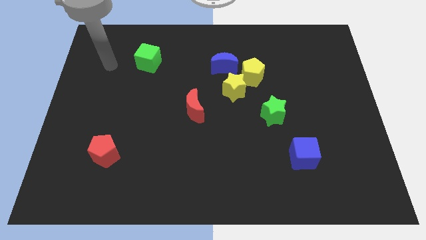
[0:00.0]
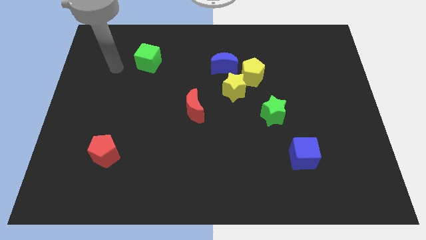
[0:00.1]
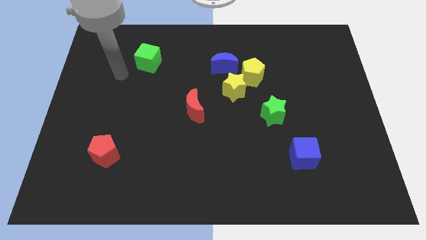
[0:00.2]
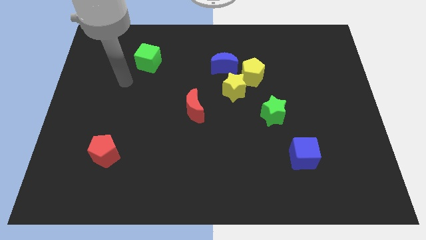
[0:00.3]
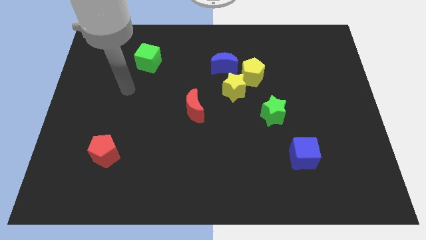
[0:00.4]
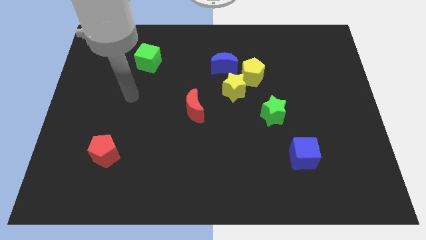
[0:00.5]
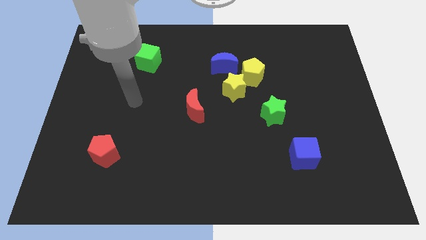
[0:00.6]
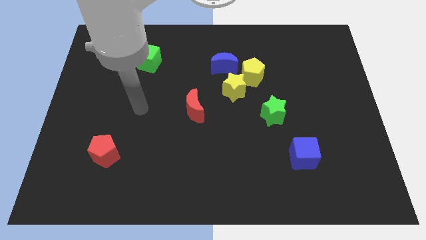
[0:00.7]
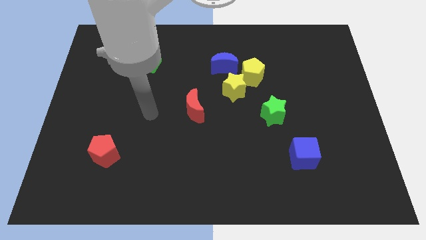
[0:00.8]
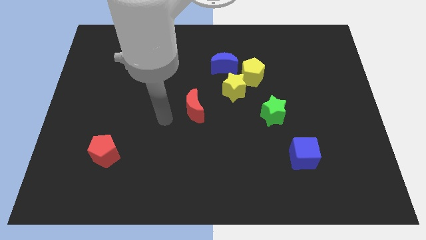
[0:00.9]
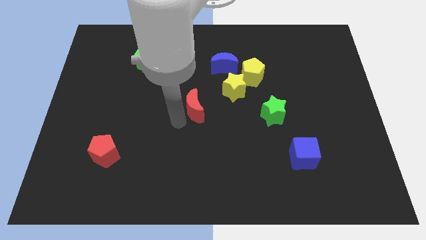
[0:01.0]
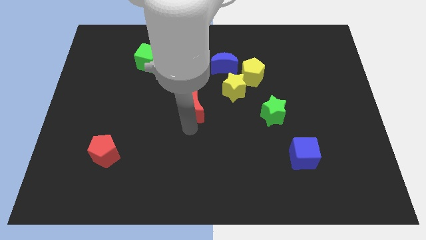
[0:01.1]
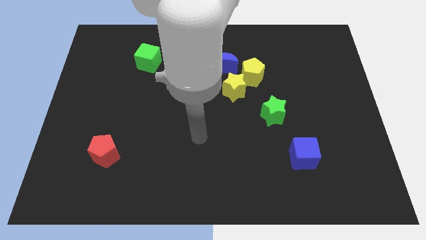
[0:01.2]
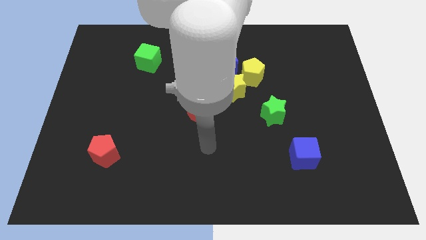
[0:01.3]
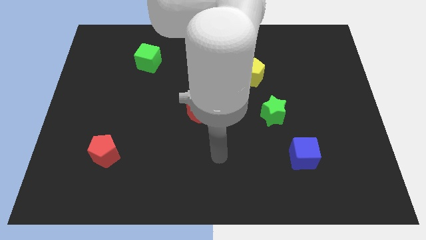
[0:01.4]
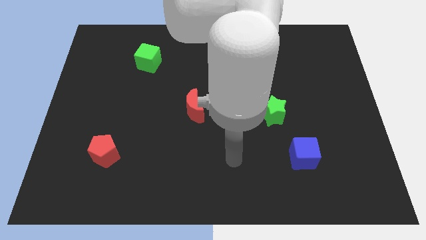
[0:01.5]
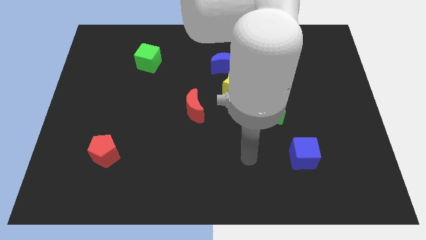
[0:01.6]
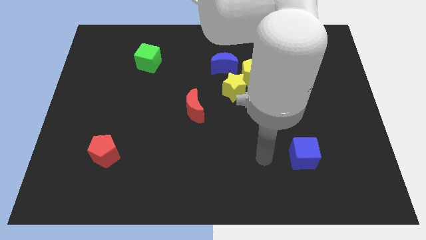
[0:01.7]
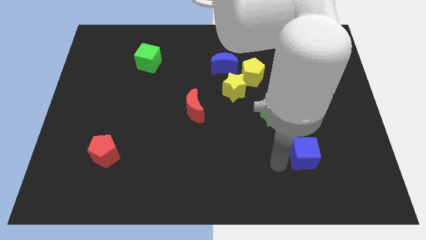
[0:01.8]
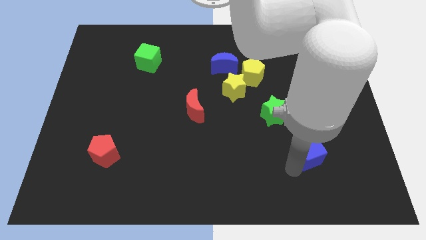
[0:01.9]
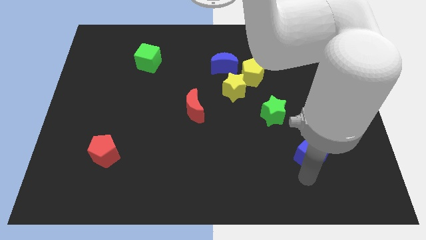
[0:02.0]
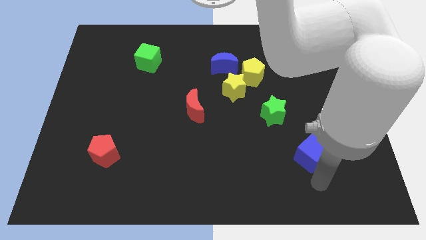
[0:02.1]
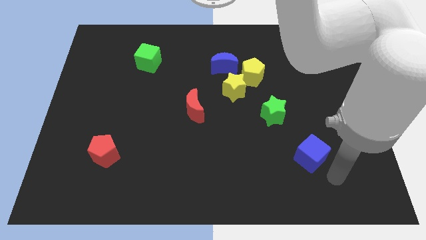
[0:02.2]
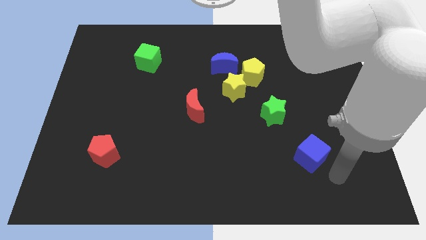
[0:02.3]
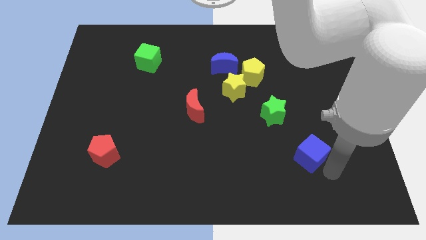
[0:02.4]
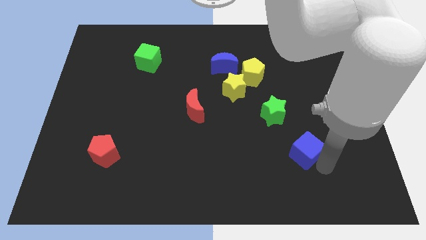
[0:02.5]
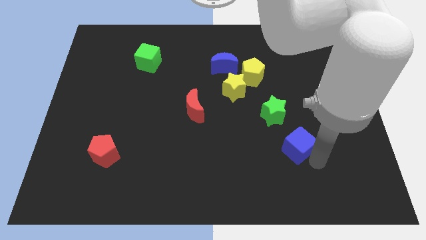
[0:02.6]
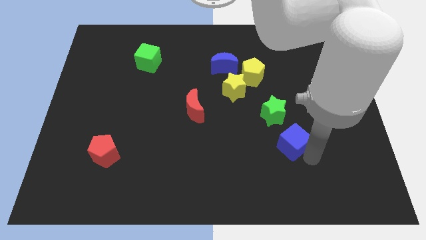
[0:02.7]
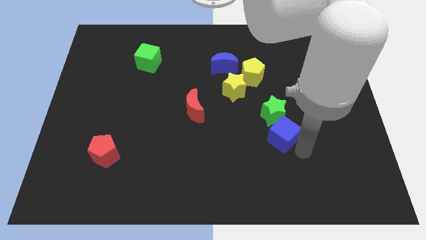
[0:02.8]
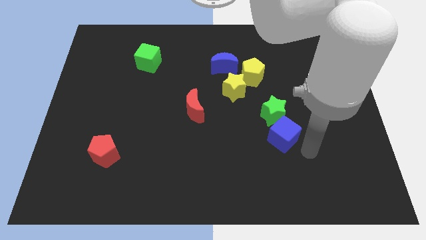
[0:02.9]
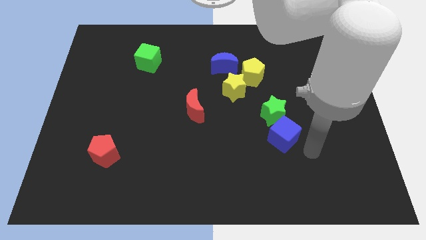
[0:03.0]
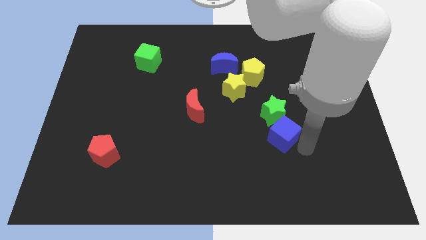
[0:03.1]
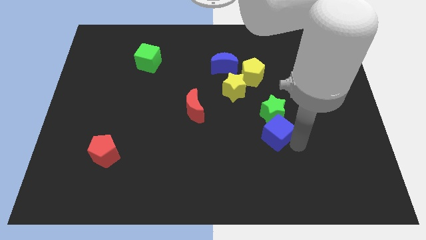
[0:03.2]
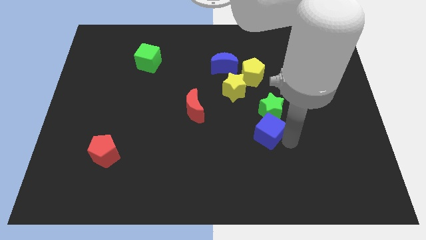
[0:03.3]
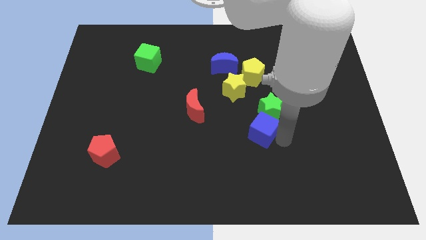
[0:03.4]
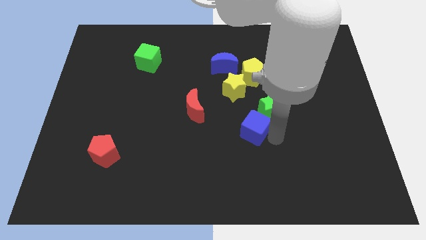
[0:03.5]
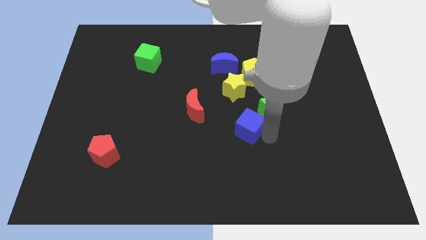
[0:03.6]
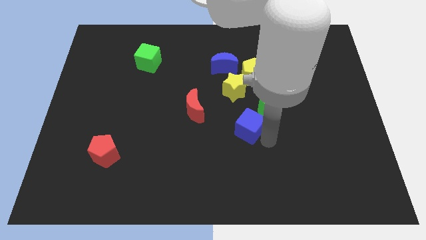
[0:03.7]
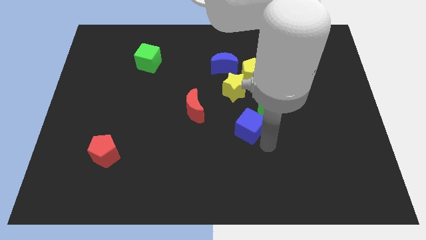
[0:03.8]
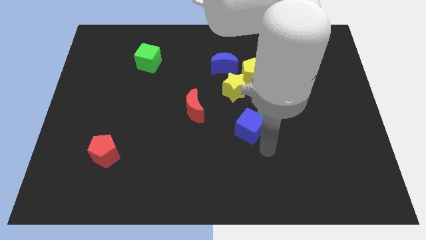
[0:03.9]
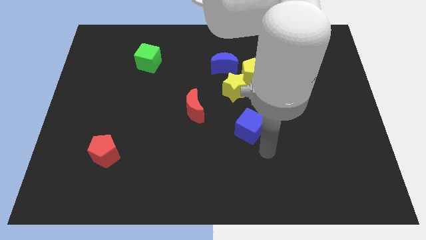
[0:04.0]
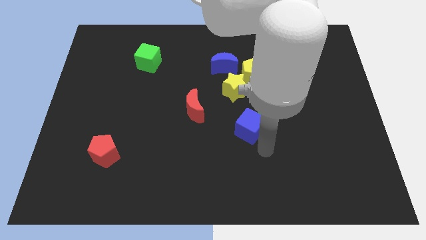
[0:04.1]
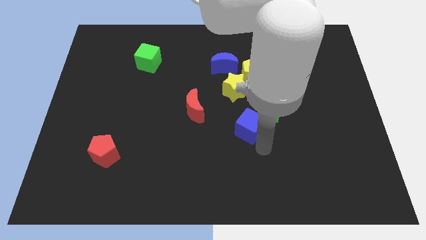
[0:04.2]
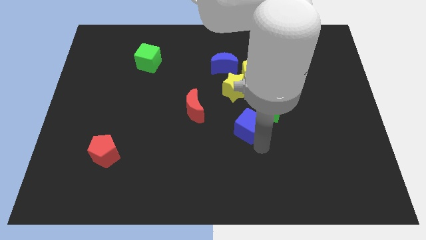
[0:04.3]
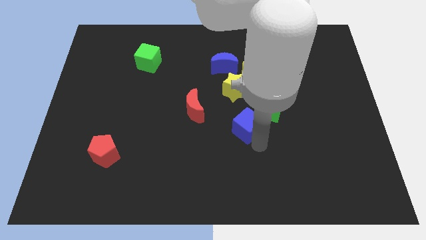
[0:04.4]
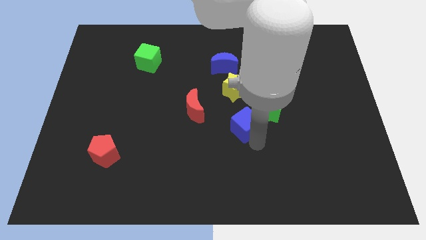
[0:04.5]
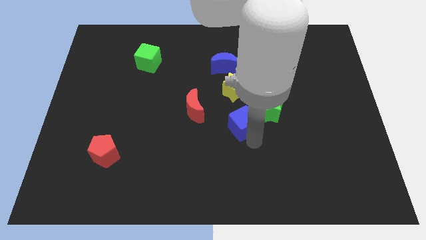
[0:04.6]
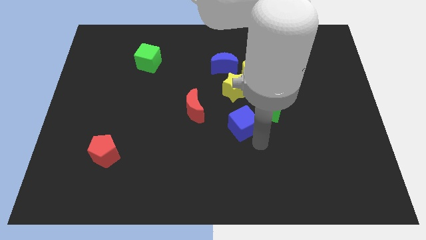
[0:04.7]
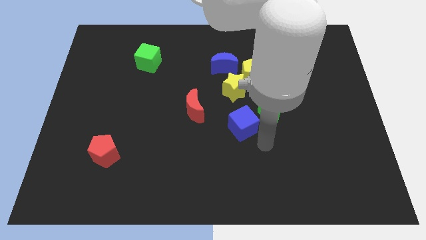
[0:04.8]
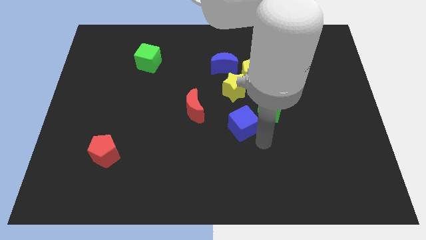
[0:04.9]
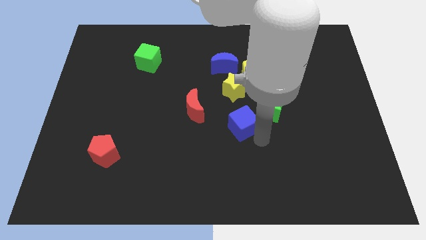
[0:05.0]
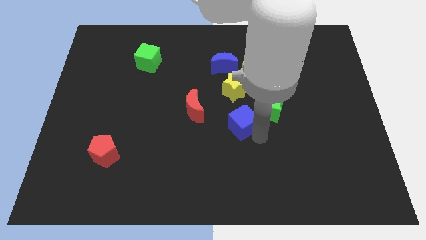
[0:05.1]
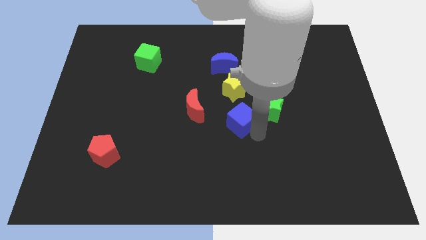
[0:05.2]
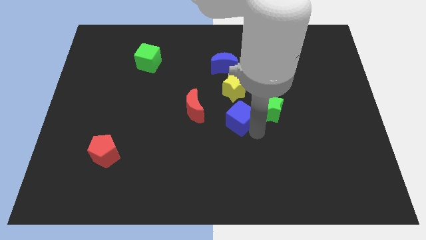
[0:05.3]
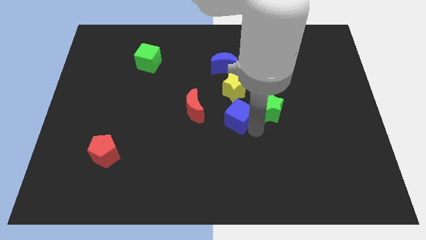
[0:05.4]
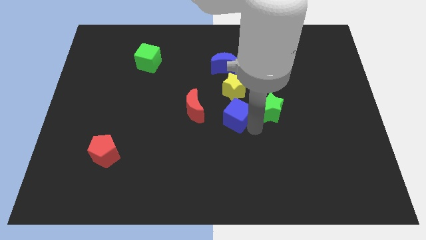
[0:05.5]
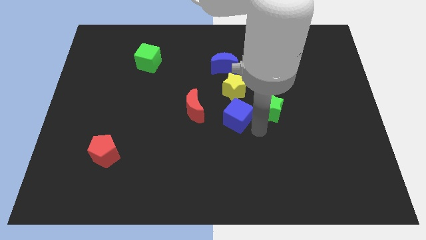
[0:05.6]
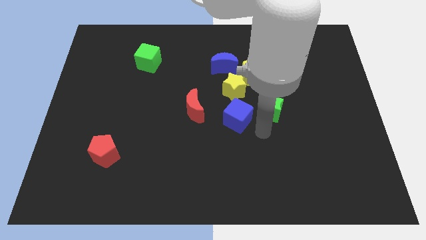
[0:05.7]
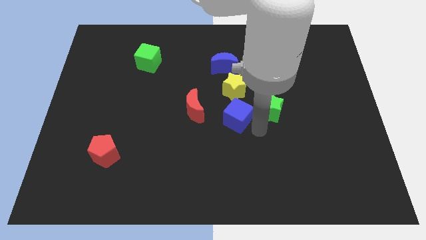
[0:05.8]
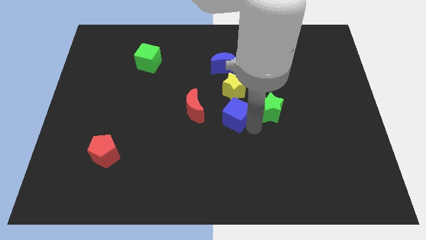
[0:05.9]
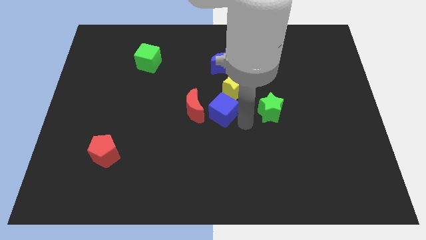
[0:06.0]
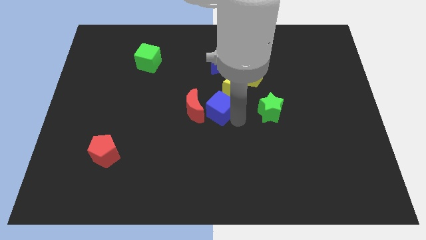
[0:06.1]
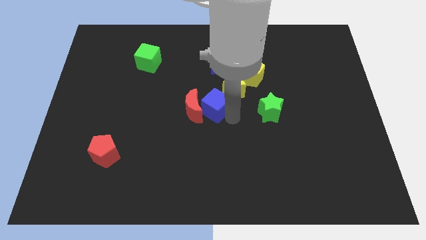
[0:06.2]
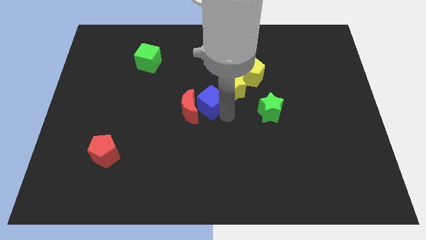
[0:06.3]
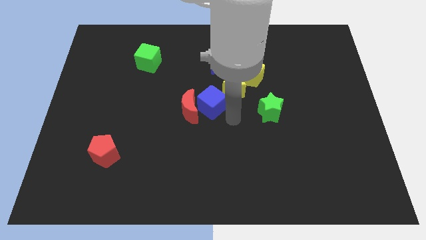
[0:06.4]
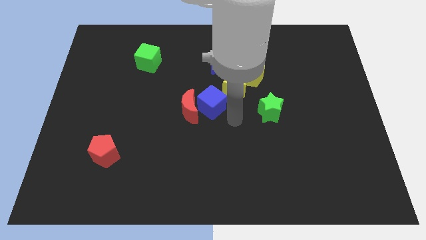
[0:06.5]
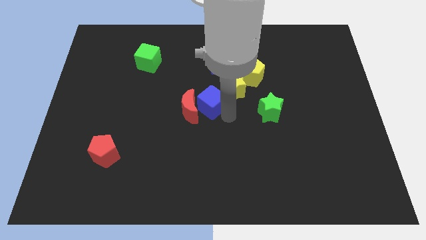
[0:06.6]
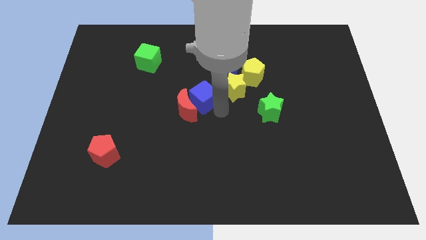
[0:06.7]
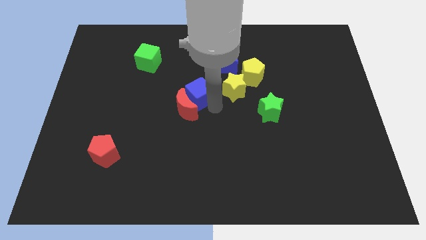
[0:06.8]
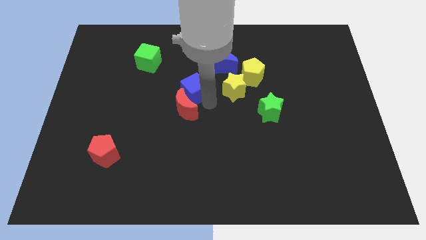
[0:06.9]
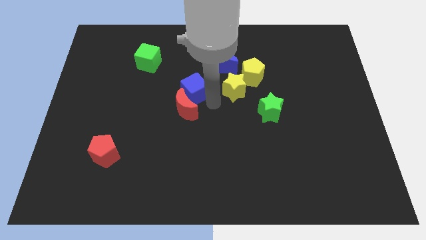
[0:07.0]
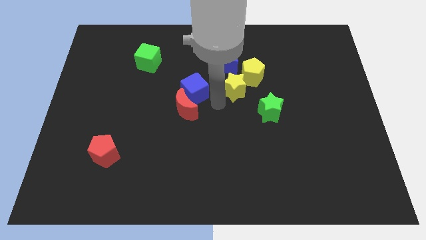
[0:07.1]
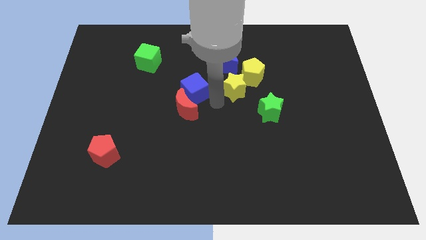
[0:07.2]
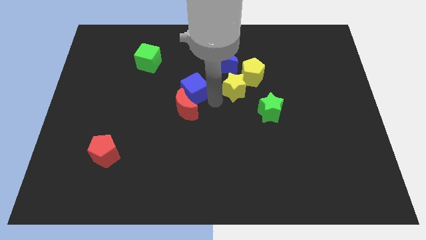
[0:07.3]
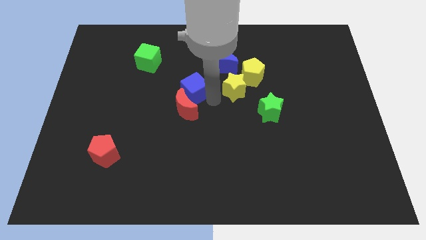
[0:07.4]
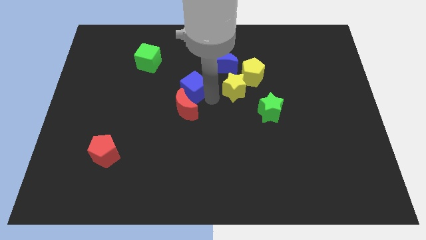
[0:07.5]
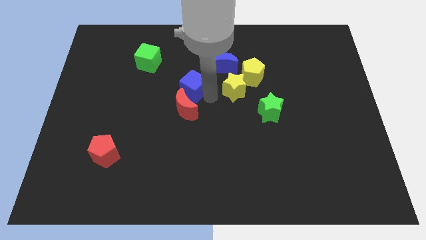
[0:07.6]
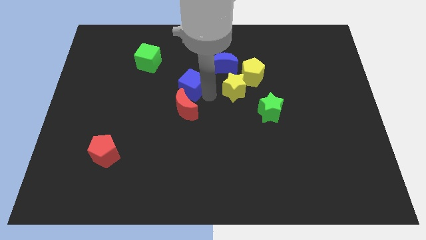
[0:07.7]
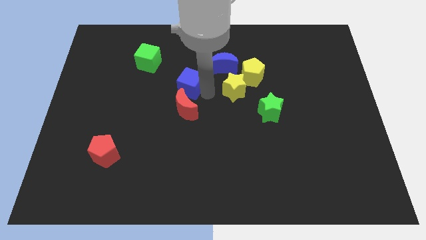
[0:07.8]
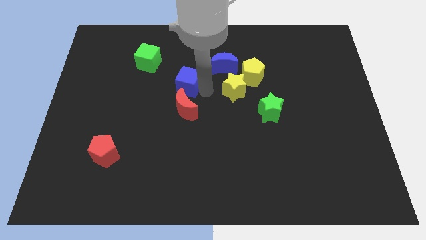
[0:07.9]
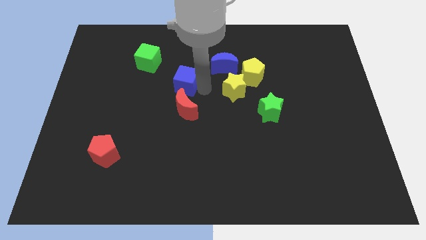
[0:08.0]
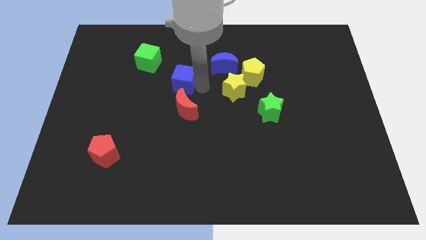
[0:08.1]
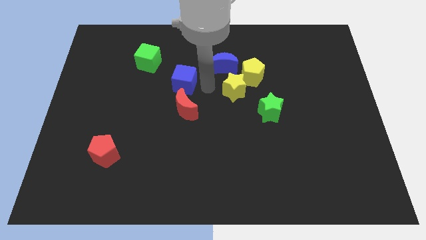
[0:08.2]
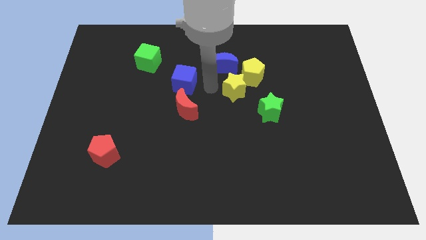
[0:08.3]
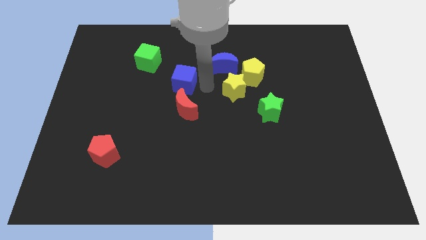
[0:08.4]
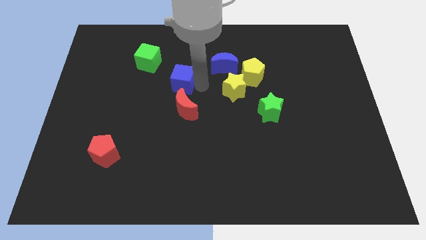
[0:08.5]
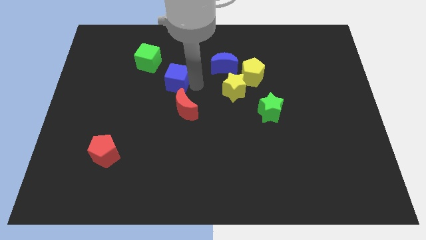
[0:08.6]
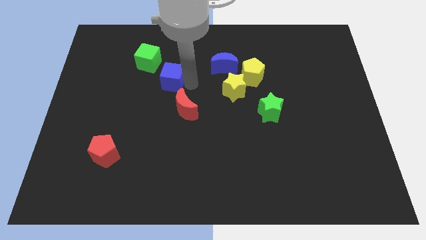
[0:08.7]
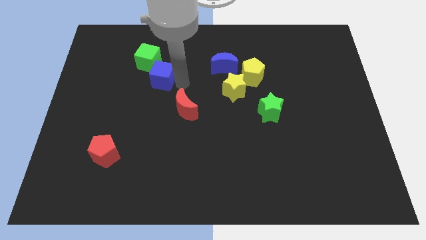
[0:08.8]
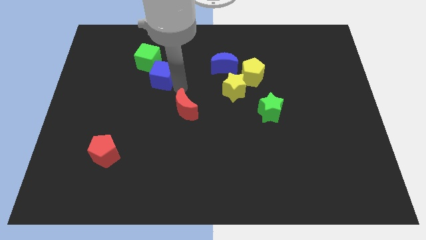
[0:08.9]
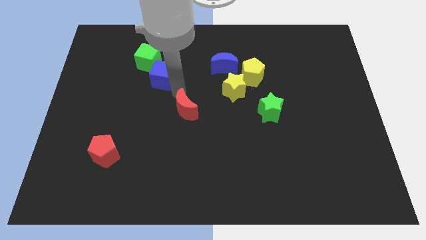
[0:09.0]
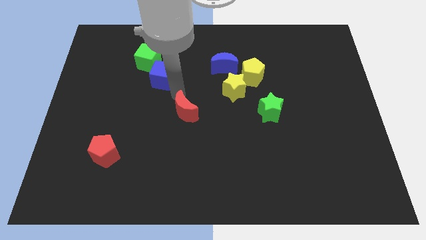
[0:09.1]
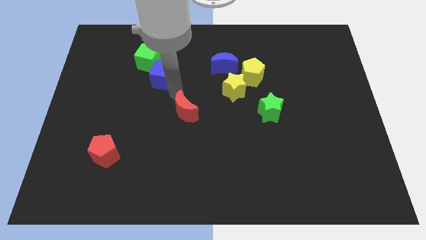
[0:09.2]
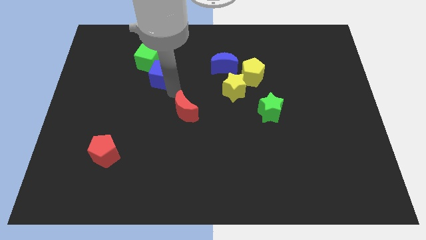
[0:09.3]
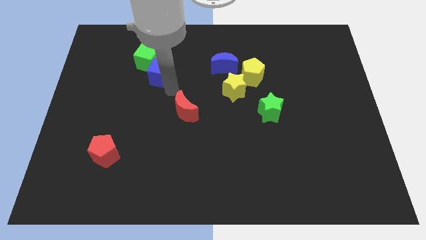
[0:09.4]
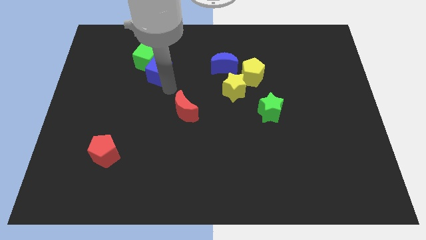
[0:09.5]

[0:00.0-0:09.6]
put the blue cube towards the green cube
